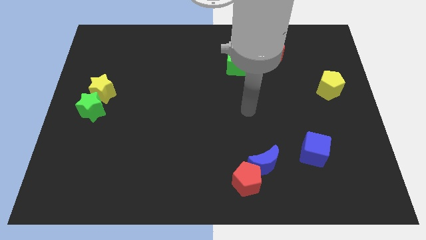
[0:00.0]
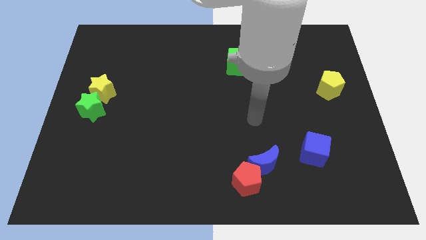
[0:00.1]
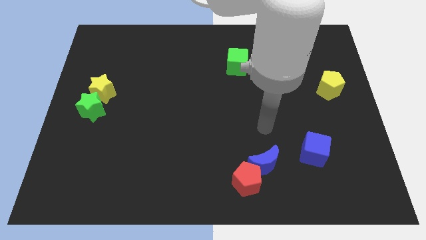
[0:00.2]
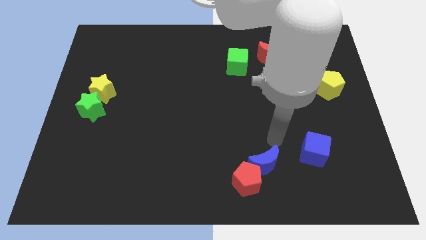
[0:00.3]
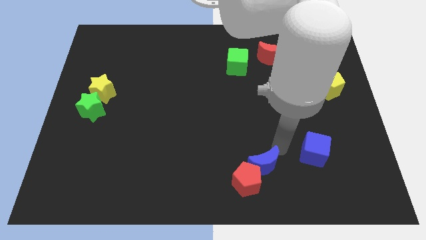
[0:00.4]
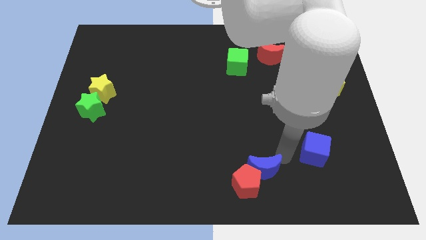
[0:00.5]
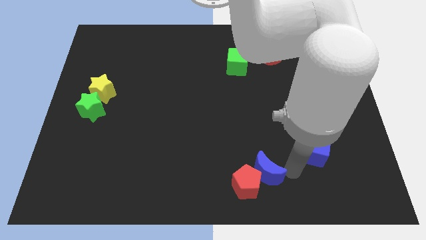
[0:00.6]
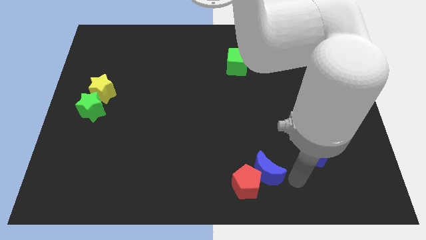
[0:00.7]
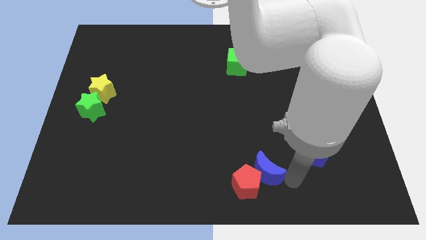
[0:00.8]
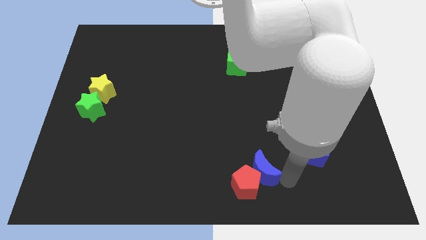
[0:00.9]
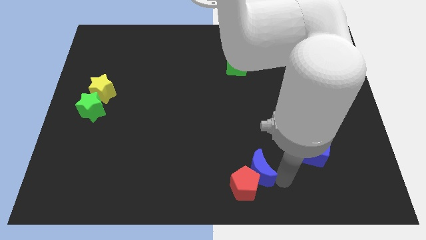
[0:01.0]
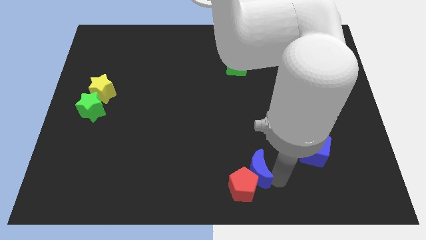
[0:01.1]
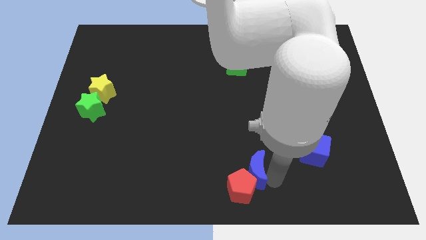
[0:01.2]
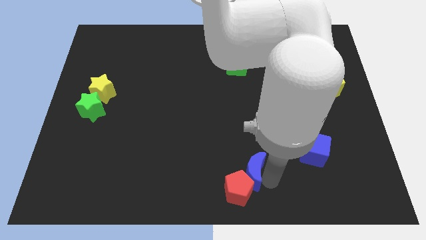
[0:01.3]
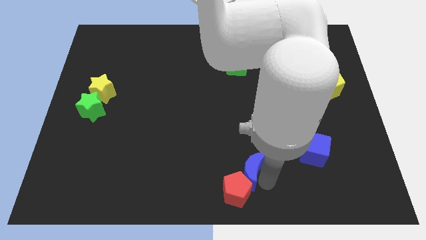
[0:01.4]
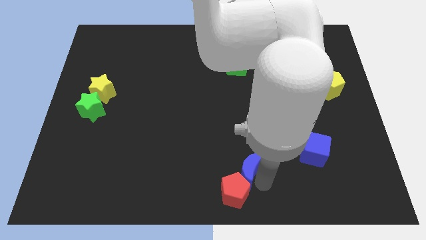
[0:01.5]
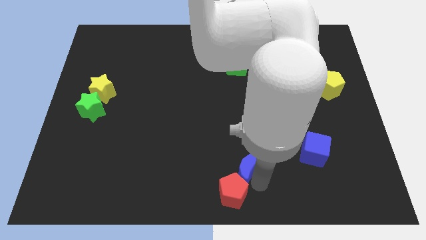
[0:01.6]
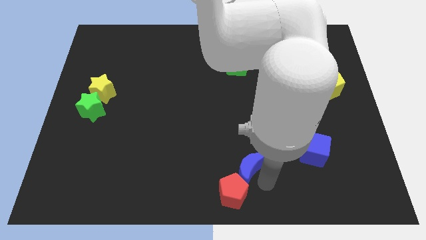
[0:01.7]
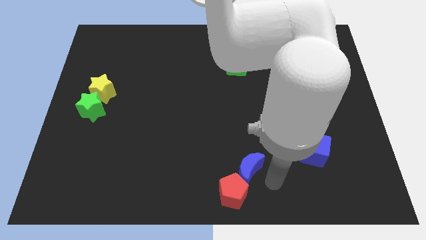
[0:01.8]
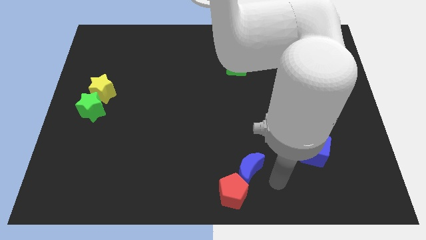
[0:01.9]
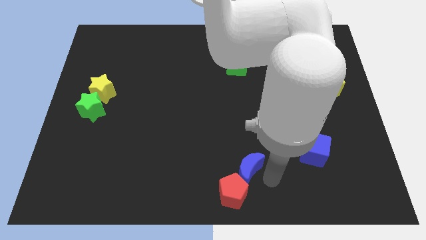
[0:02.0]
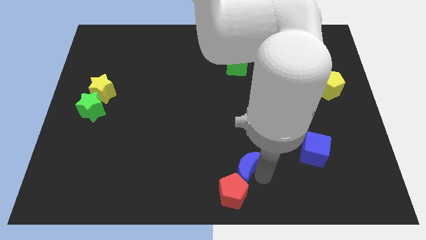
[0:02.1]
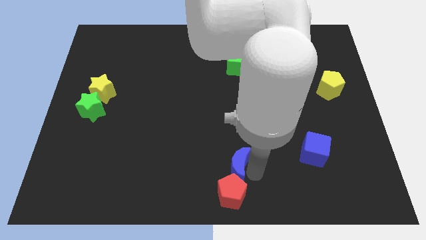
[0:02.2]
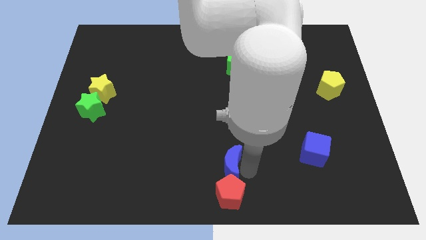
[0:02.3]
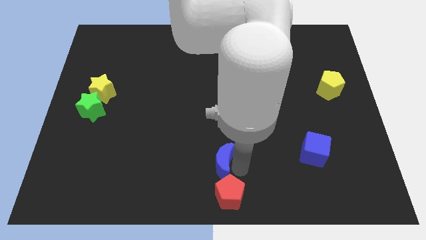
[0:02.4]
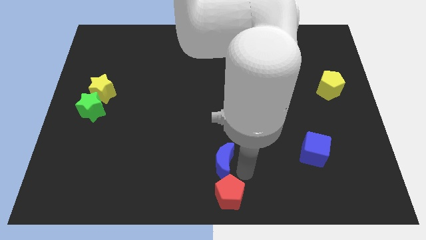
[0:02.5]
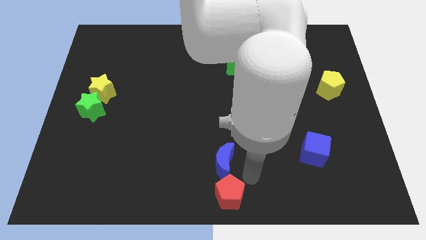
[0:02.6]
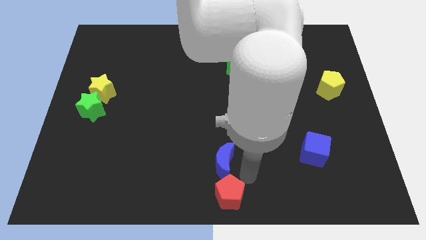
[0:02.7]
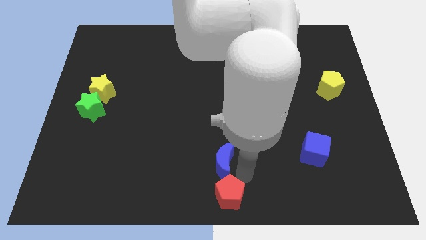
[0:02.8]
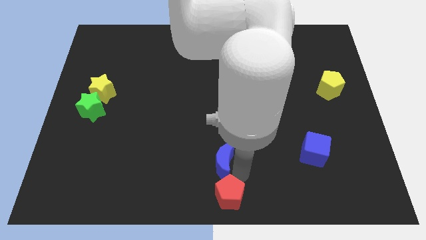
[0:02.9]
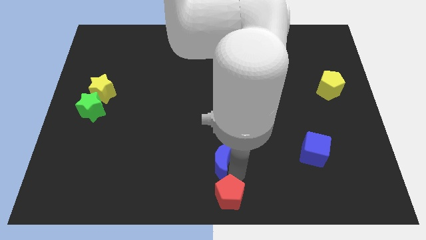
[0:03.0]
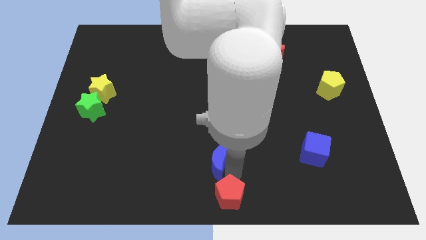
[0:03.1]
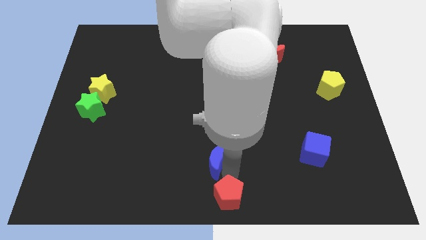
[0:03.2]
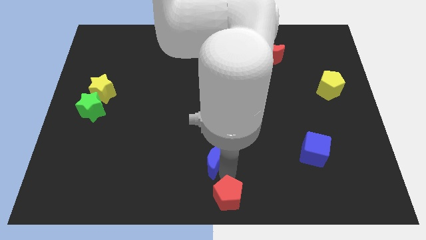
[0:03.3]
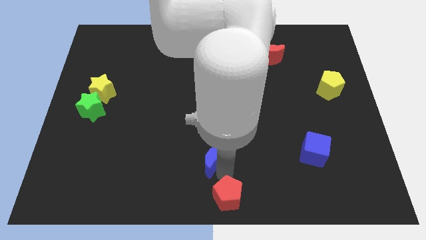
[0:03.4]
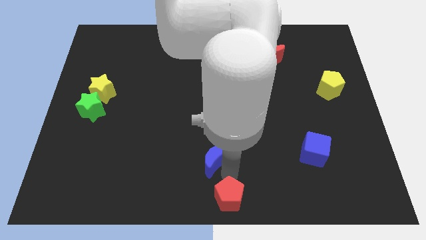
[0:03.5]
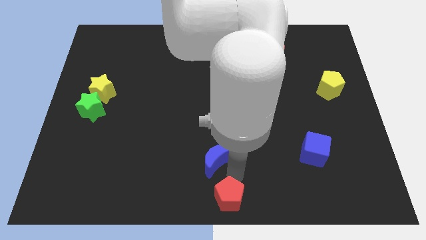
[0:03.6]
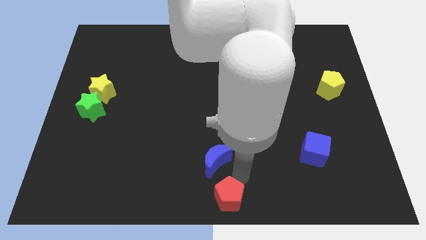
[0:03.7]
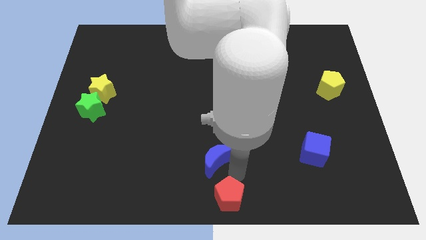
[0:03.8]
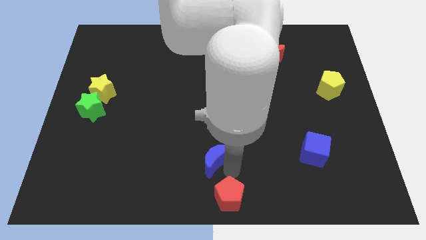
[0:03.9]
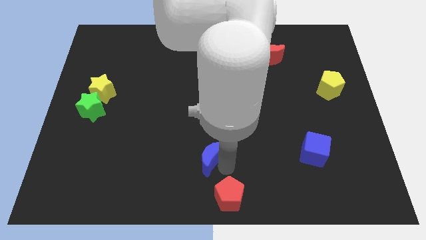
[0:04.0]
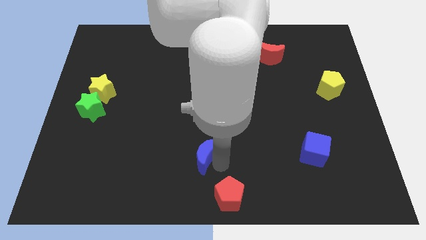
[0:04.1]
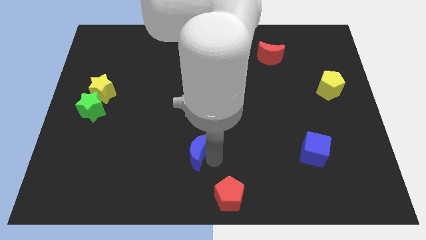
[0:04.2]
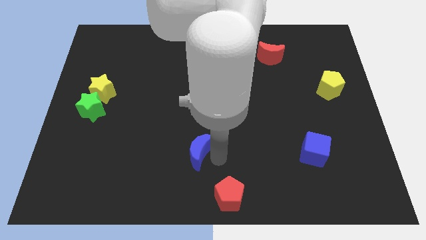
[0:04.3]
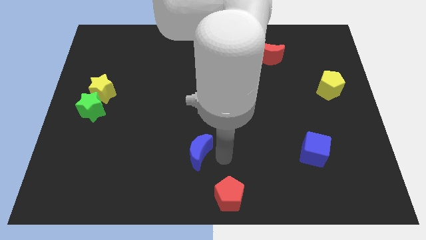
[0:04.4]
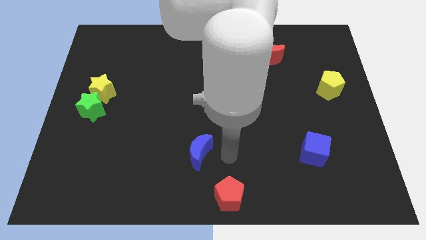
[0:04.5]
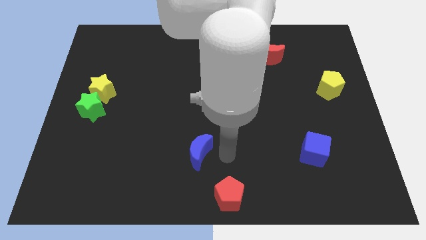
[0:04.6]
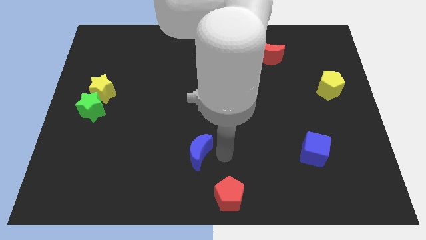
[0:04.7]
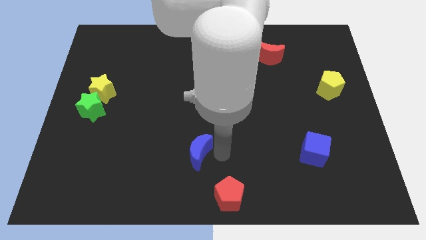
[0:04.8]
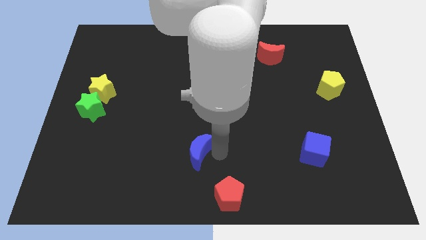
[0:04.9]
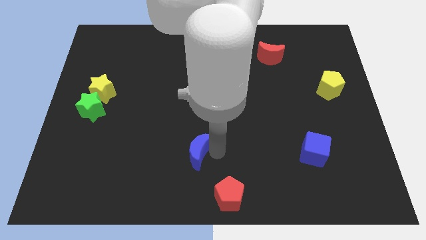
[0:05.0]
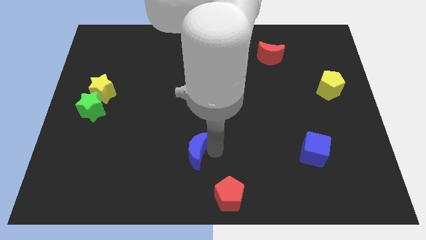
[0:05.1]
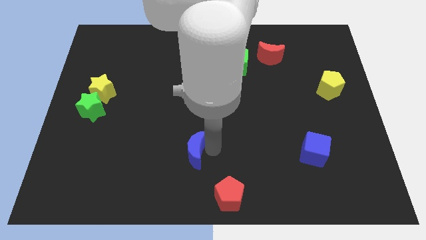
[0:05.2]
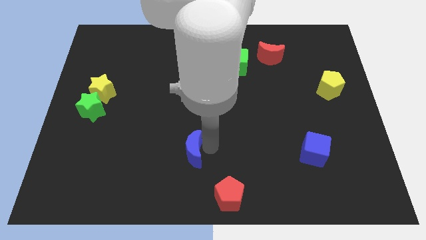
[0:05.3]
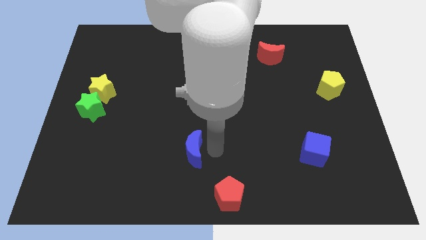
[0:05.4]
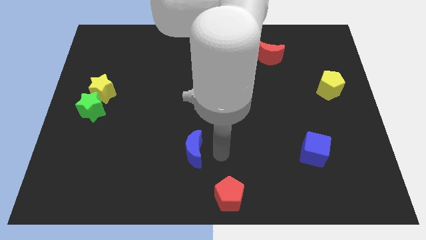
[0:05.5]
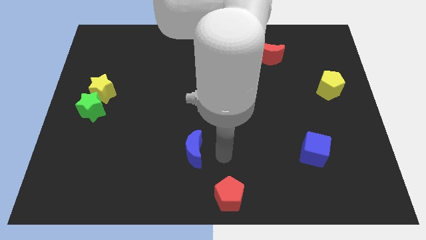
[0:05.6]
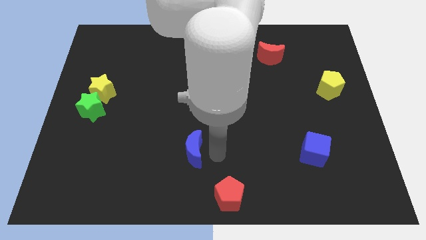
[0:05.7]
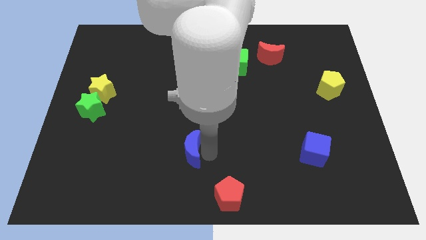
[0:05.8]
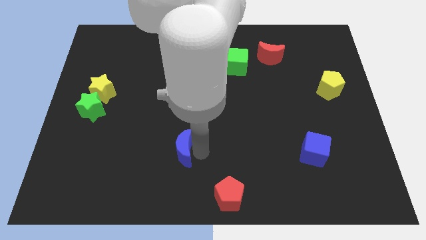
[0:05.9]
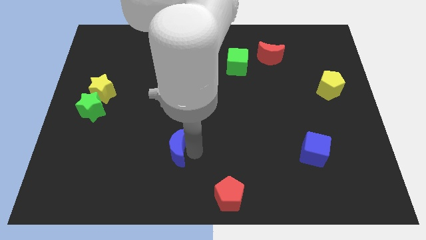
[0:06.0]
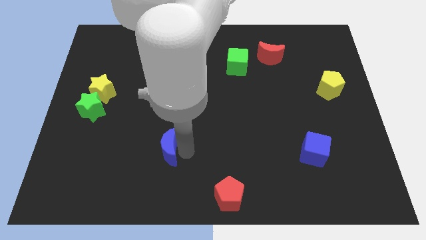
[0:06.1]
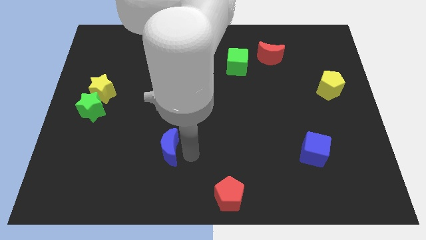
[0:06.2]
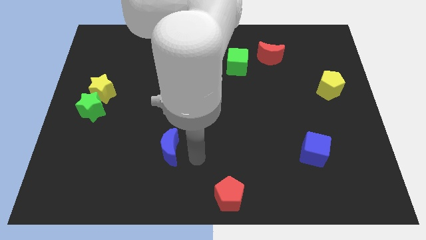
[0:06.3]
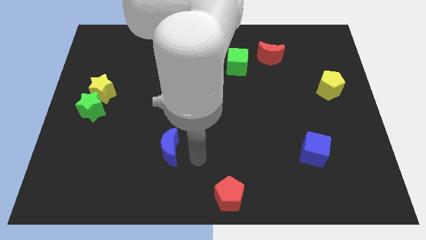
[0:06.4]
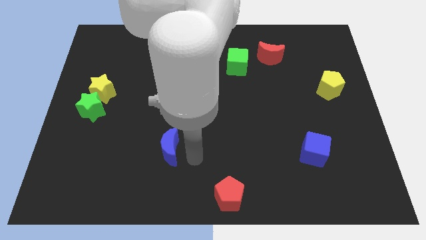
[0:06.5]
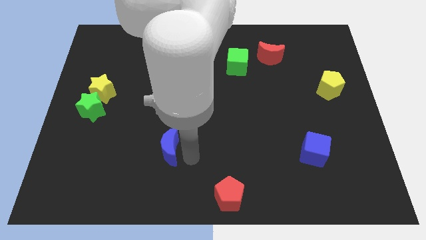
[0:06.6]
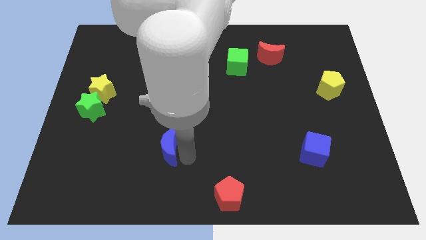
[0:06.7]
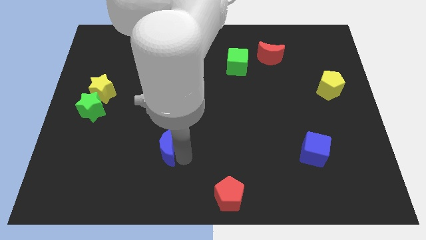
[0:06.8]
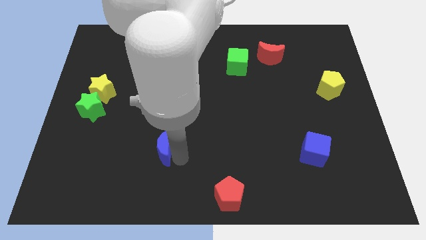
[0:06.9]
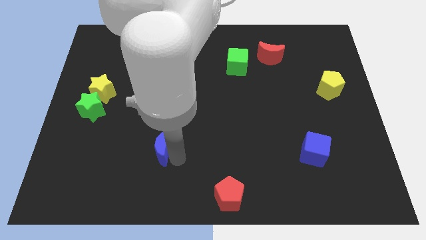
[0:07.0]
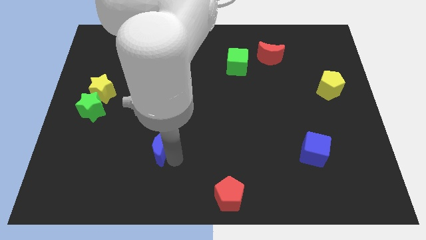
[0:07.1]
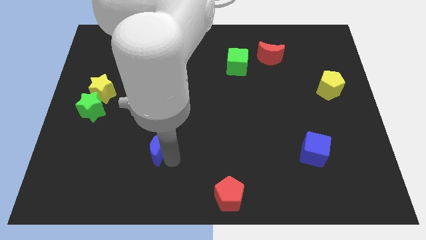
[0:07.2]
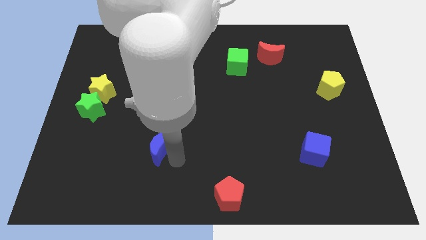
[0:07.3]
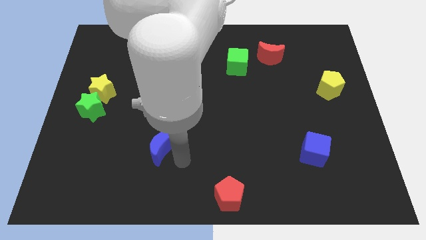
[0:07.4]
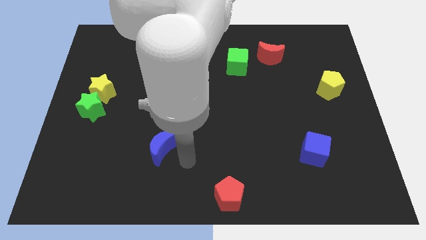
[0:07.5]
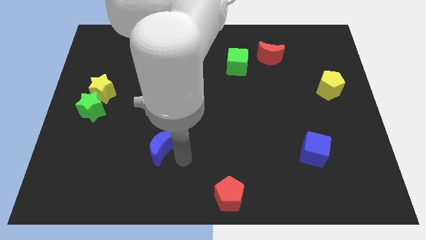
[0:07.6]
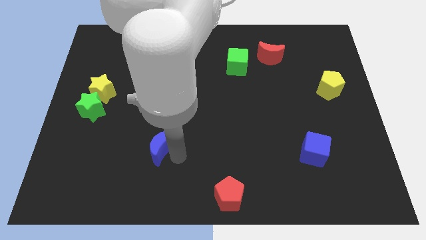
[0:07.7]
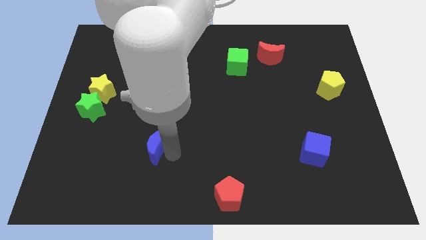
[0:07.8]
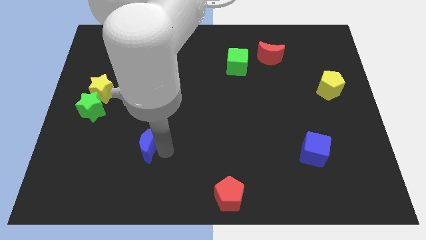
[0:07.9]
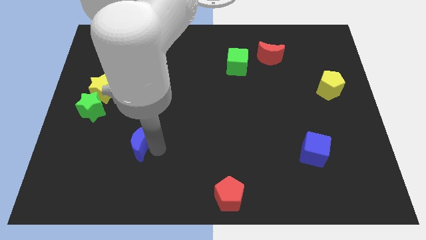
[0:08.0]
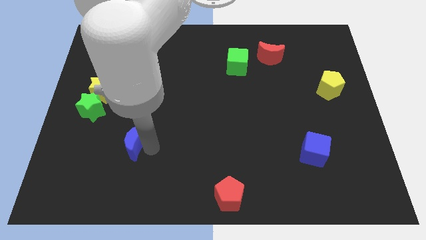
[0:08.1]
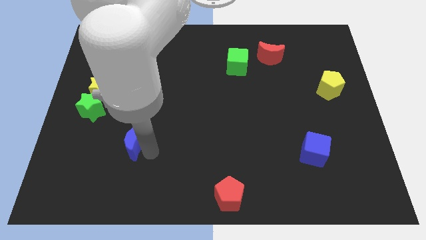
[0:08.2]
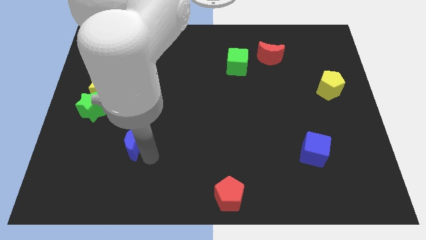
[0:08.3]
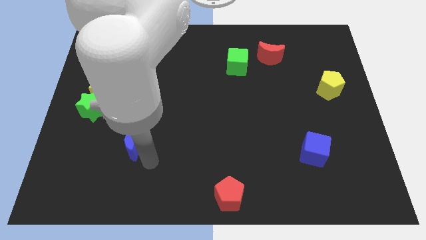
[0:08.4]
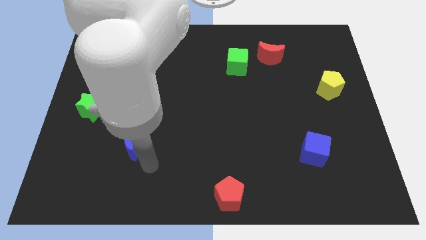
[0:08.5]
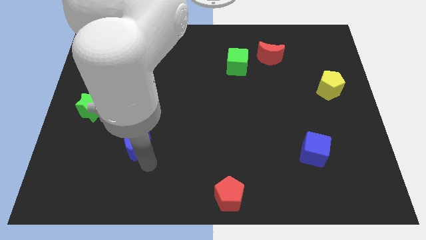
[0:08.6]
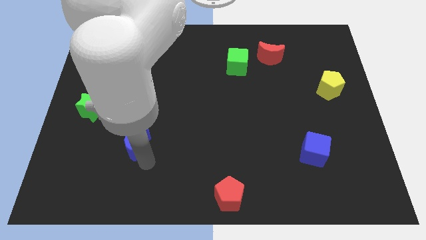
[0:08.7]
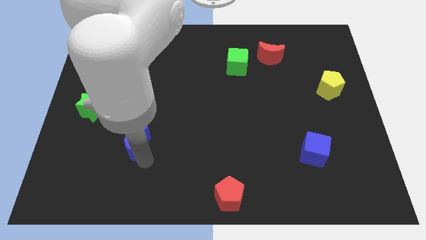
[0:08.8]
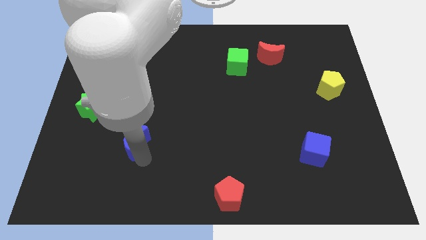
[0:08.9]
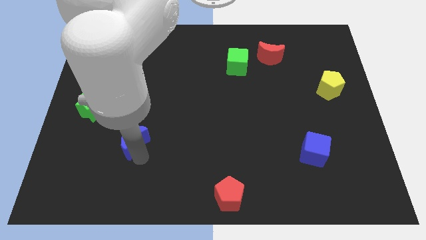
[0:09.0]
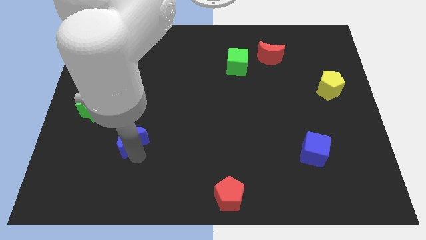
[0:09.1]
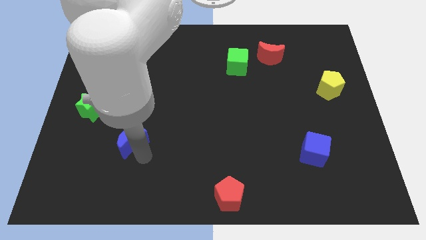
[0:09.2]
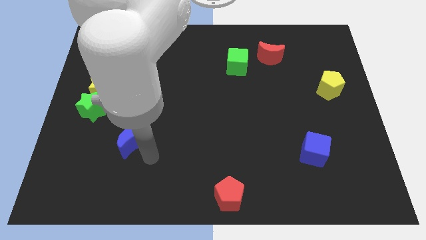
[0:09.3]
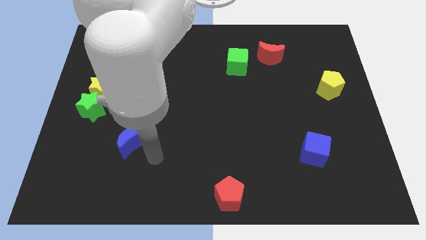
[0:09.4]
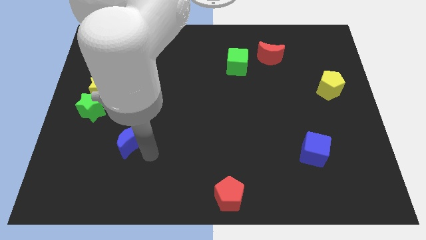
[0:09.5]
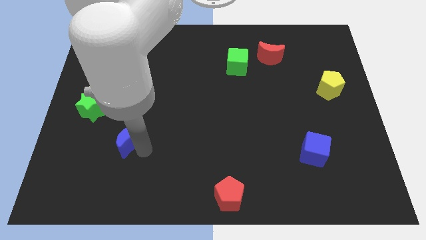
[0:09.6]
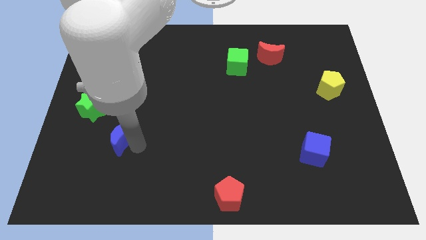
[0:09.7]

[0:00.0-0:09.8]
move the blue moon to the bottom right side of the green star
